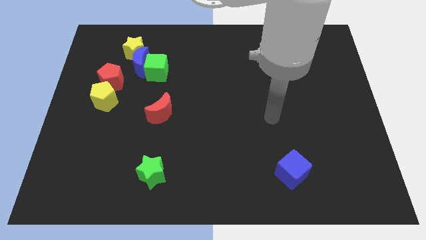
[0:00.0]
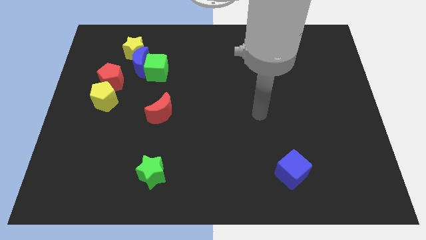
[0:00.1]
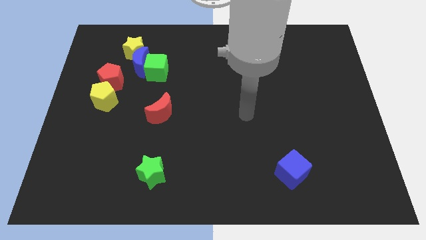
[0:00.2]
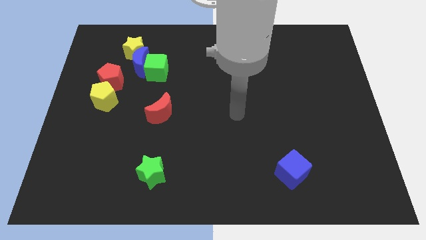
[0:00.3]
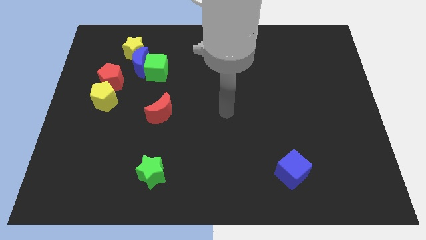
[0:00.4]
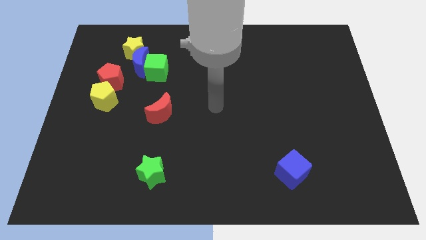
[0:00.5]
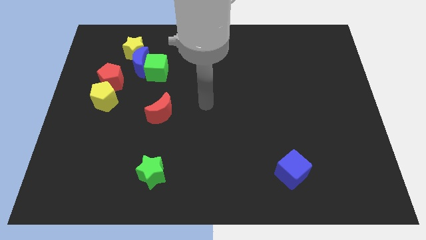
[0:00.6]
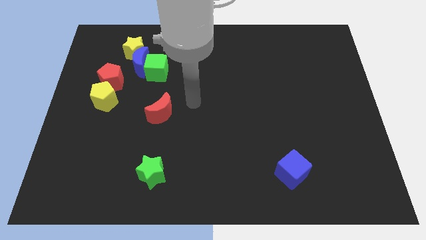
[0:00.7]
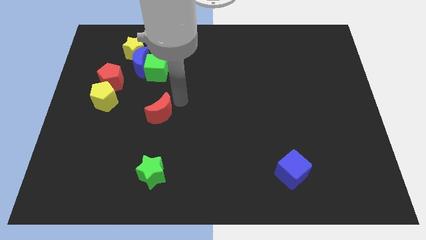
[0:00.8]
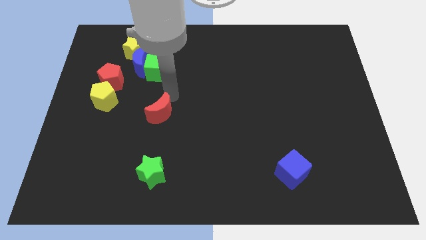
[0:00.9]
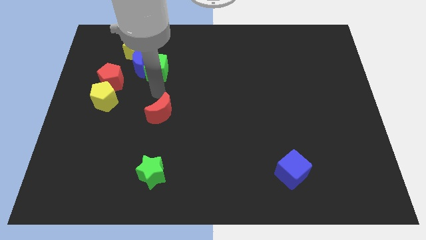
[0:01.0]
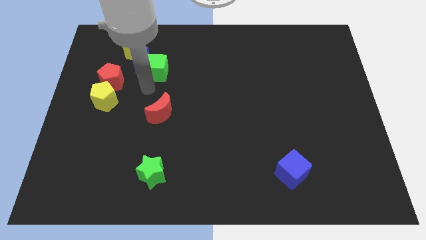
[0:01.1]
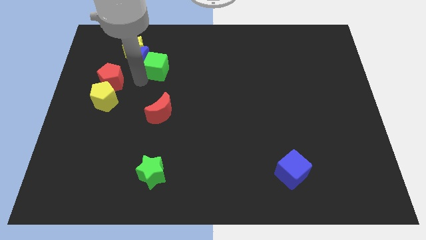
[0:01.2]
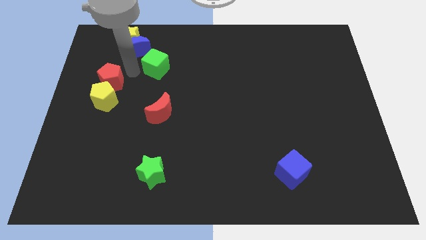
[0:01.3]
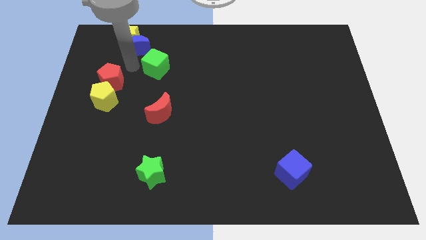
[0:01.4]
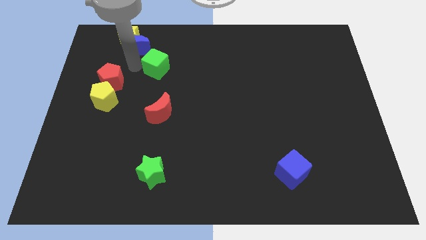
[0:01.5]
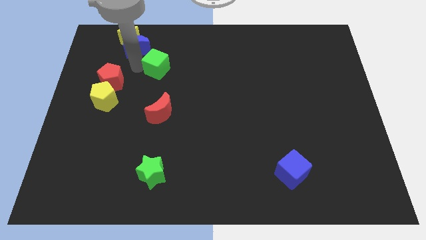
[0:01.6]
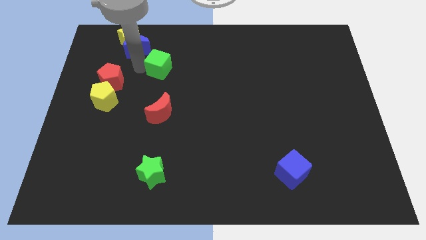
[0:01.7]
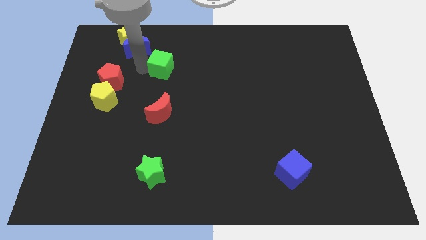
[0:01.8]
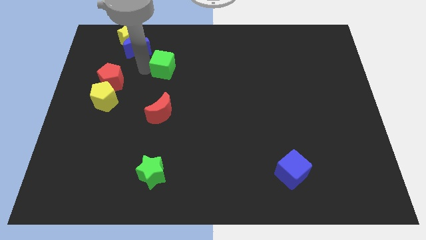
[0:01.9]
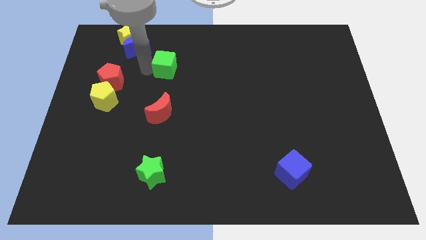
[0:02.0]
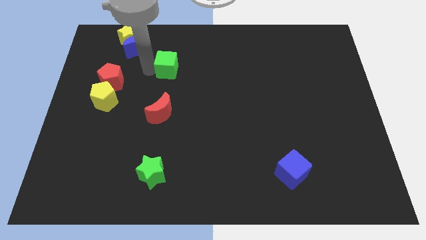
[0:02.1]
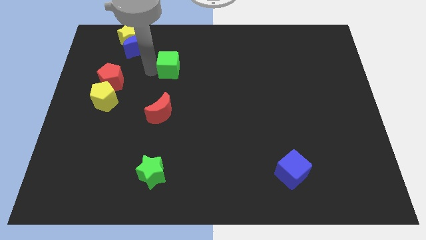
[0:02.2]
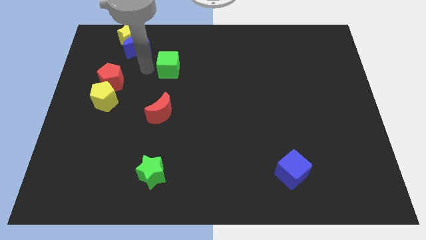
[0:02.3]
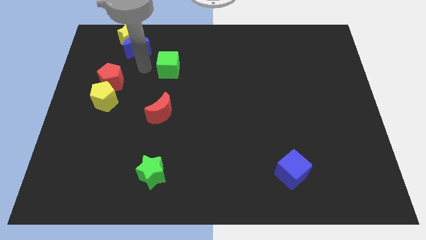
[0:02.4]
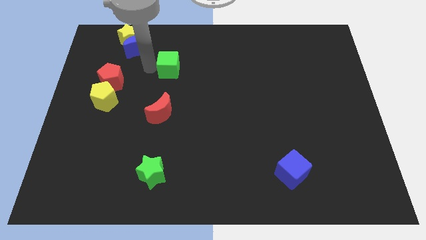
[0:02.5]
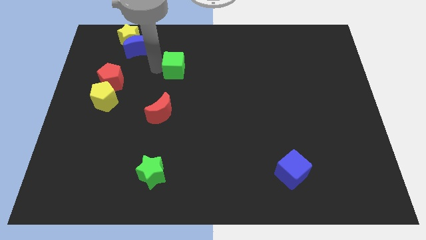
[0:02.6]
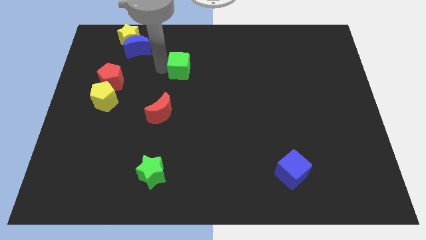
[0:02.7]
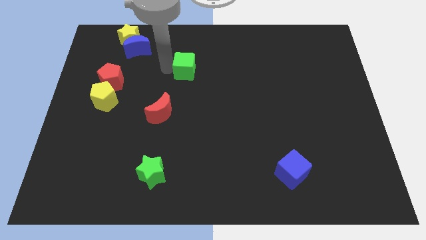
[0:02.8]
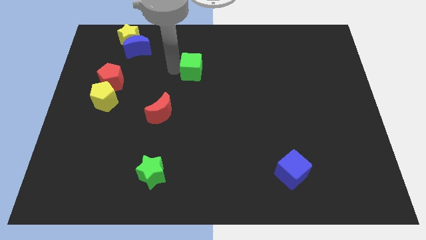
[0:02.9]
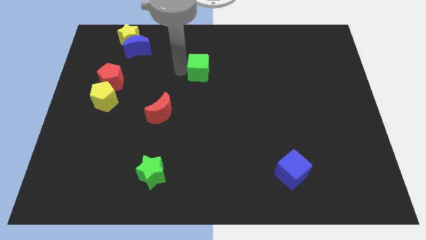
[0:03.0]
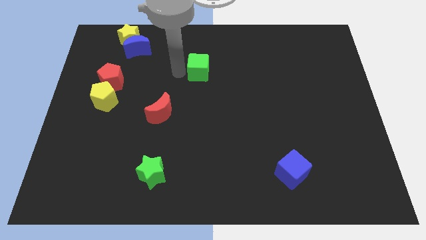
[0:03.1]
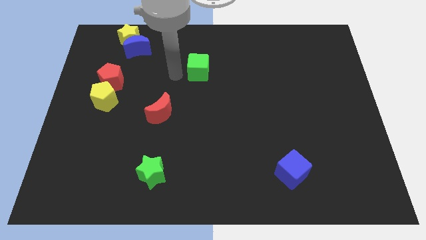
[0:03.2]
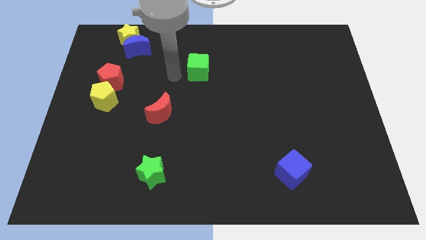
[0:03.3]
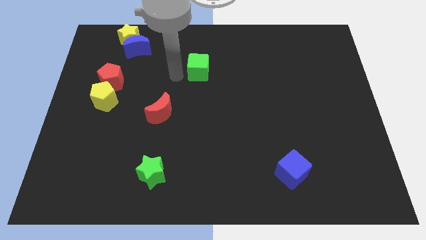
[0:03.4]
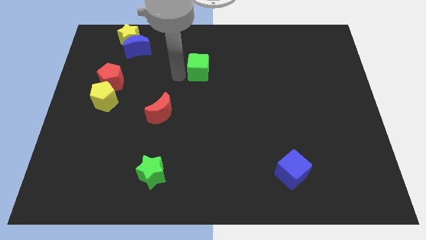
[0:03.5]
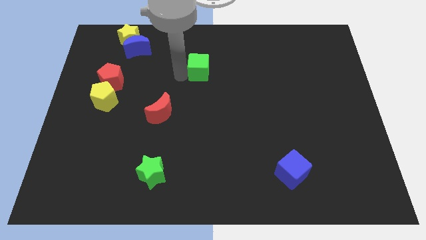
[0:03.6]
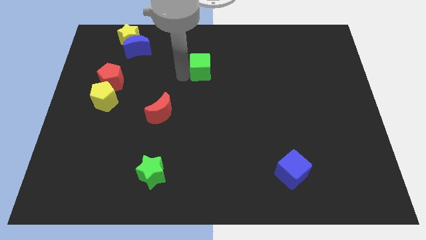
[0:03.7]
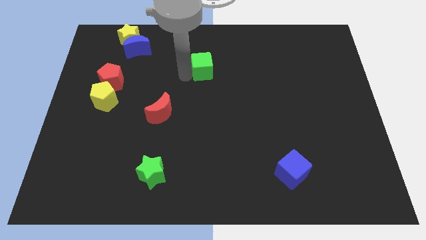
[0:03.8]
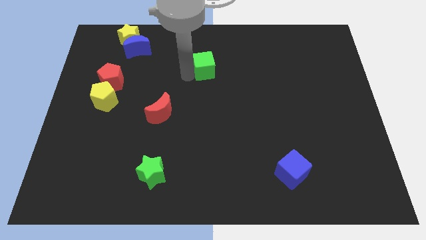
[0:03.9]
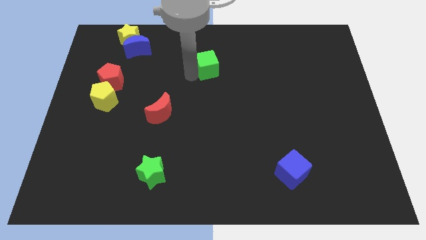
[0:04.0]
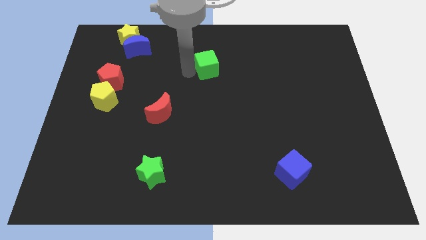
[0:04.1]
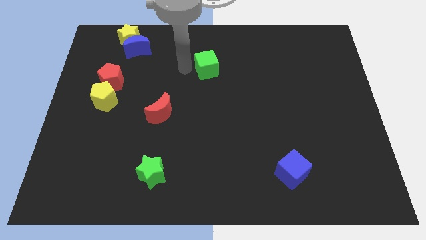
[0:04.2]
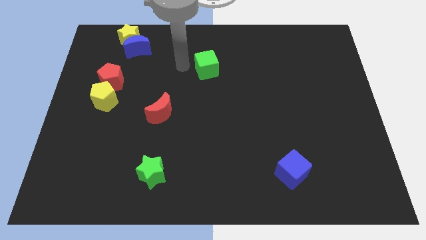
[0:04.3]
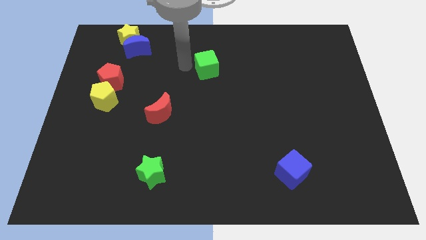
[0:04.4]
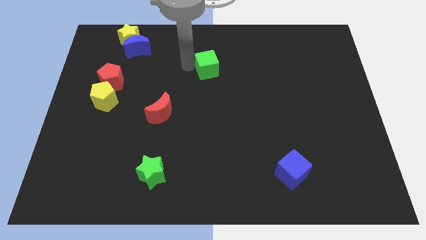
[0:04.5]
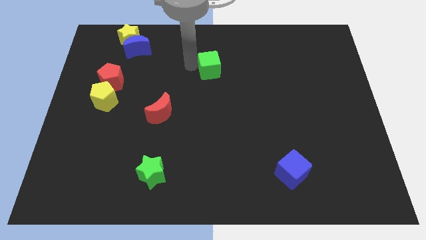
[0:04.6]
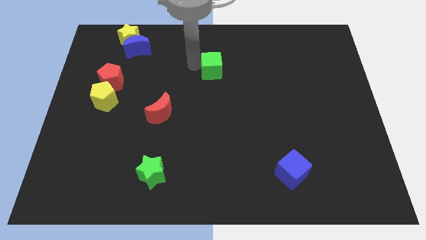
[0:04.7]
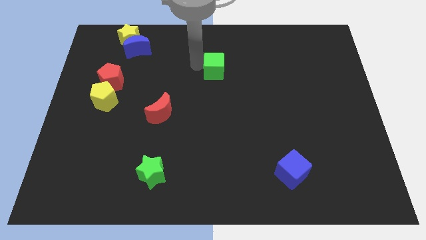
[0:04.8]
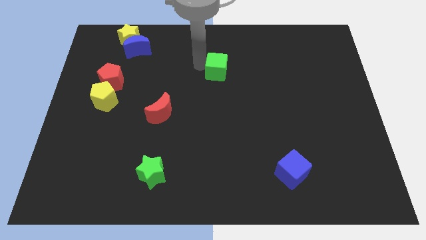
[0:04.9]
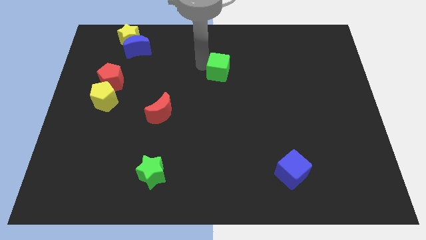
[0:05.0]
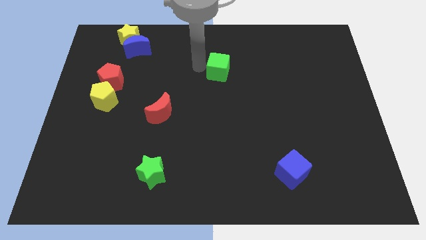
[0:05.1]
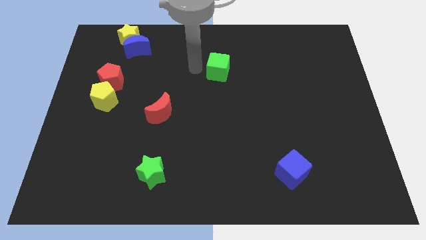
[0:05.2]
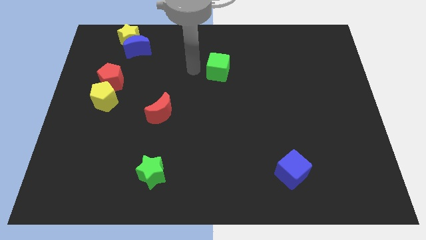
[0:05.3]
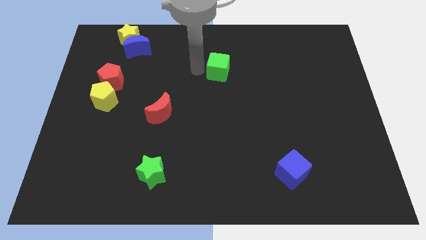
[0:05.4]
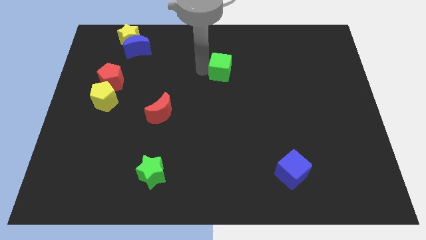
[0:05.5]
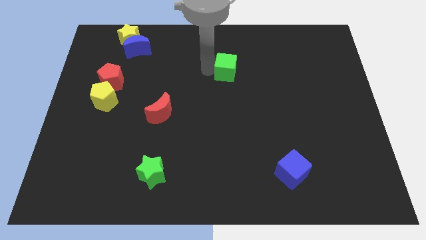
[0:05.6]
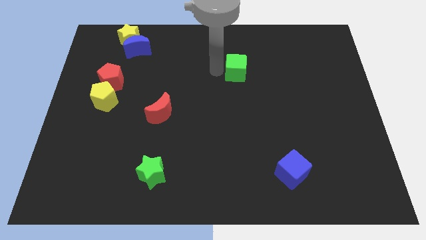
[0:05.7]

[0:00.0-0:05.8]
slide the green cube to the right

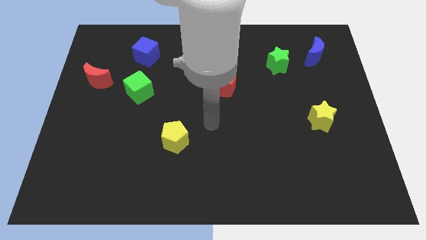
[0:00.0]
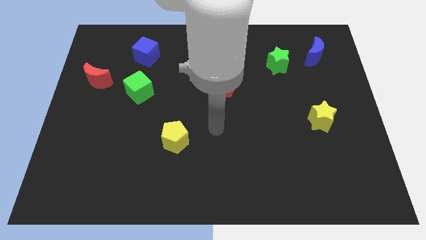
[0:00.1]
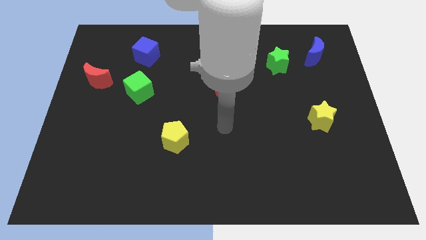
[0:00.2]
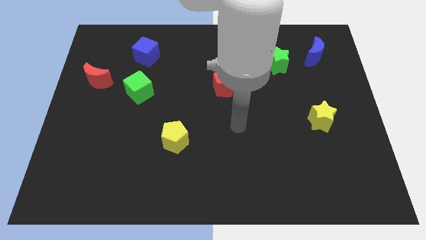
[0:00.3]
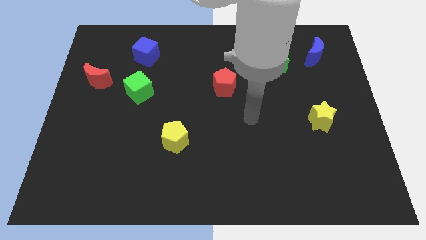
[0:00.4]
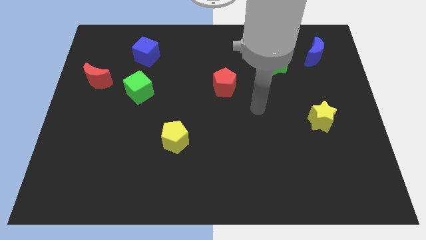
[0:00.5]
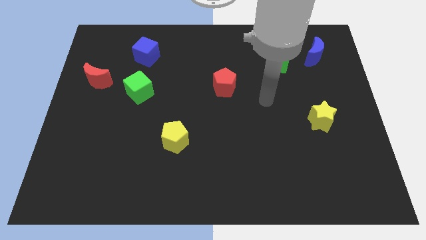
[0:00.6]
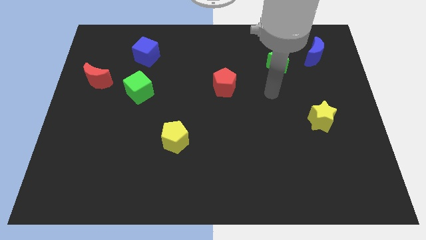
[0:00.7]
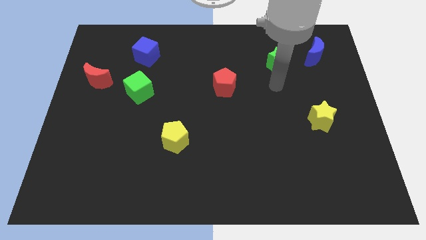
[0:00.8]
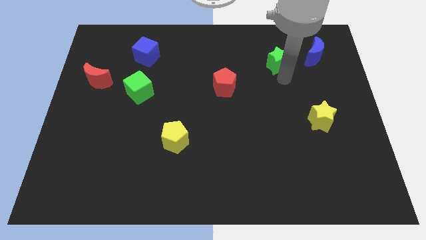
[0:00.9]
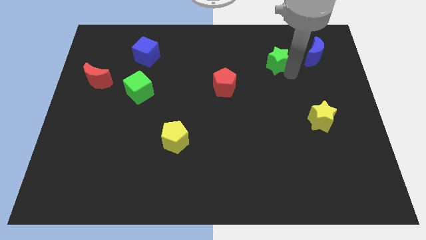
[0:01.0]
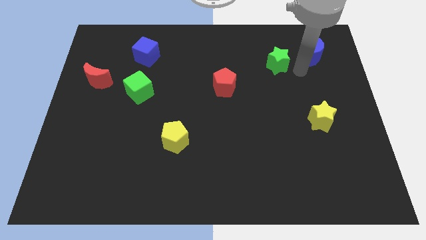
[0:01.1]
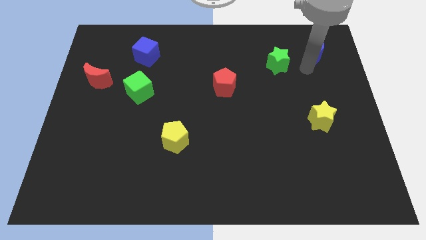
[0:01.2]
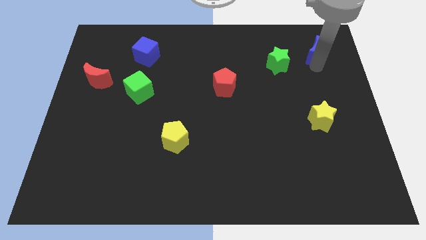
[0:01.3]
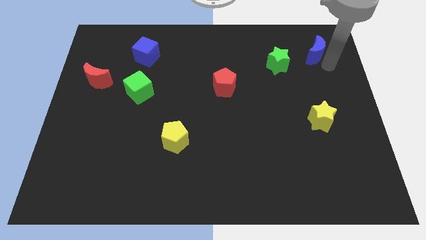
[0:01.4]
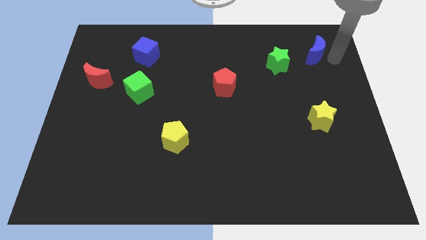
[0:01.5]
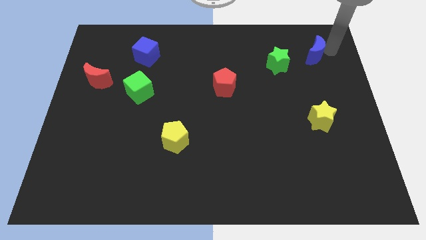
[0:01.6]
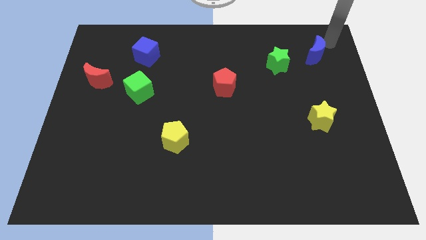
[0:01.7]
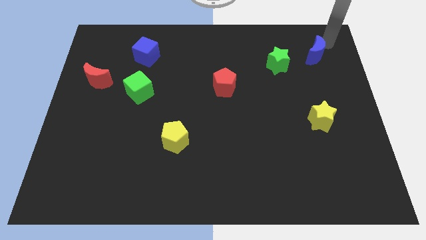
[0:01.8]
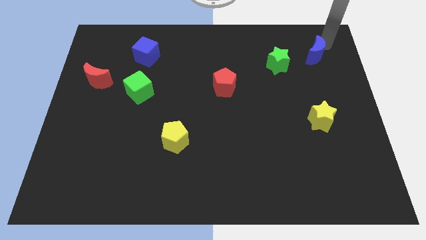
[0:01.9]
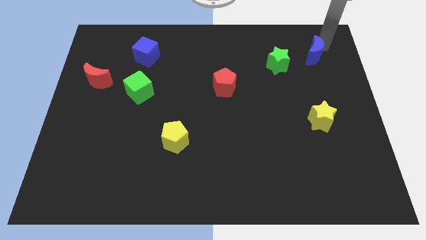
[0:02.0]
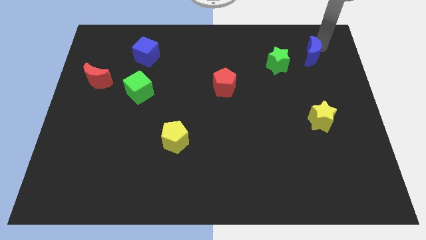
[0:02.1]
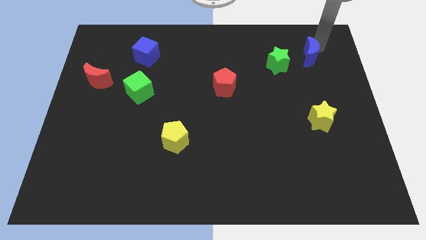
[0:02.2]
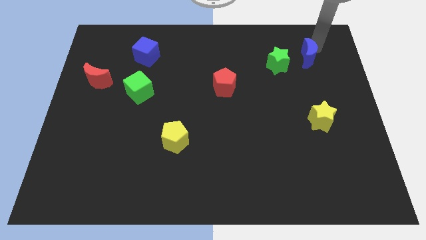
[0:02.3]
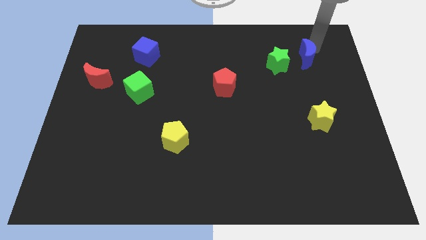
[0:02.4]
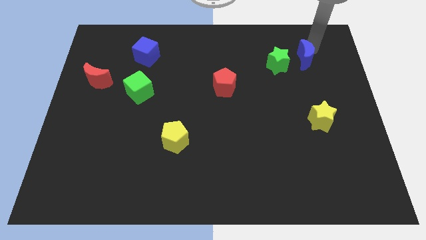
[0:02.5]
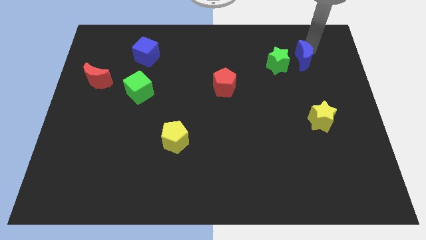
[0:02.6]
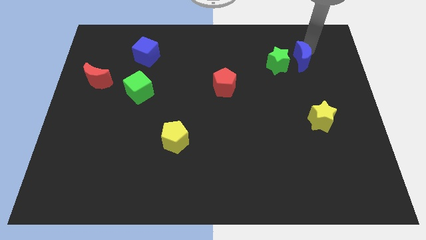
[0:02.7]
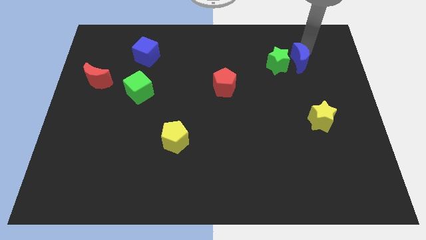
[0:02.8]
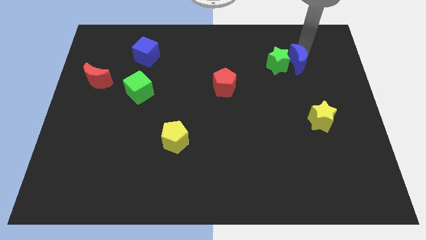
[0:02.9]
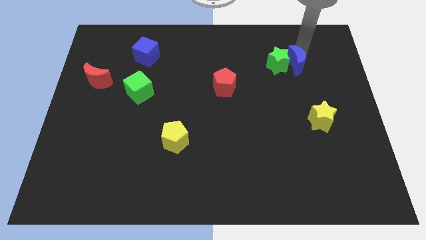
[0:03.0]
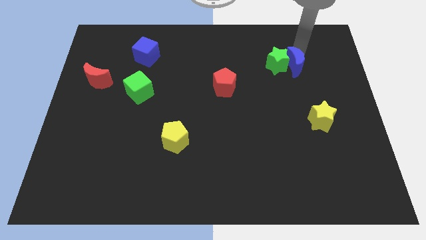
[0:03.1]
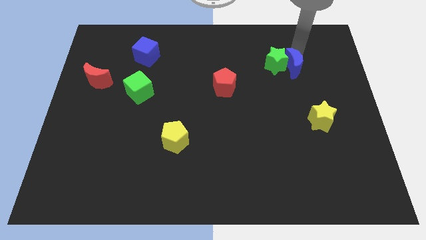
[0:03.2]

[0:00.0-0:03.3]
push the blue moon a little bit downwards and to the left diagonally
